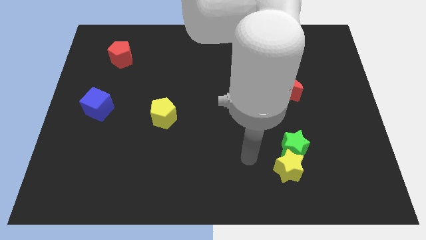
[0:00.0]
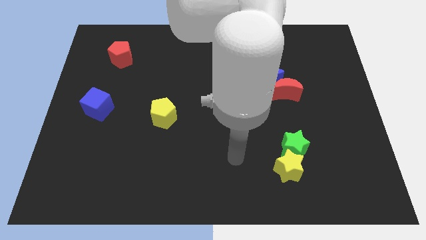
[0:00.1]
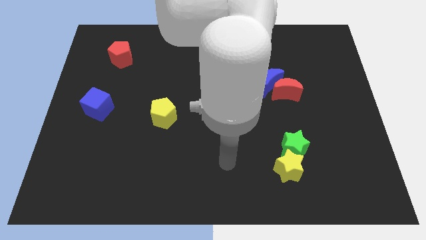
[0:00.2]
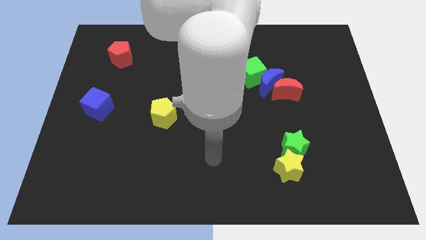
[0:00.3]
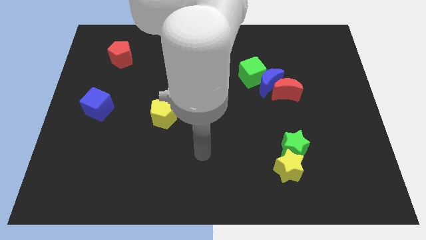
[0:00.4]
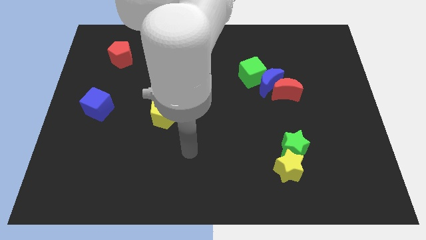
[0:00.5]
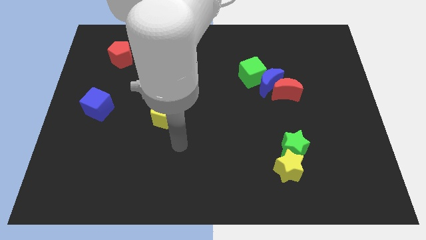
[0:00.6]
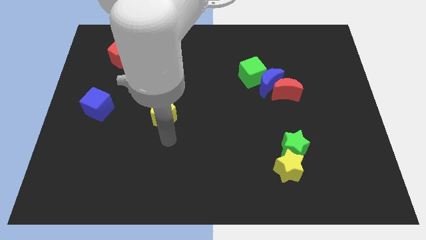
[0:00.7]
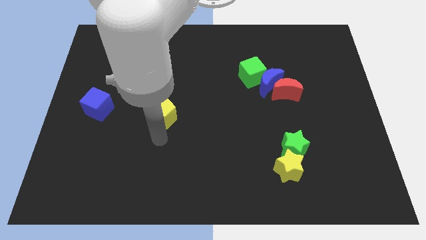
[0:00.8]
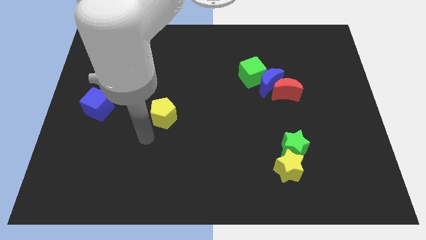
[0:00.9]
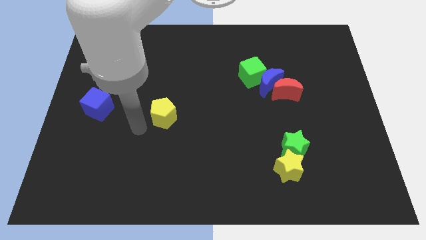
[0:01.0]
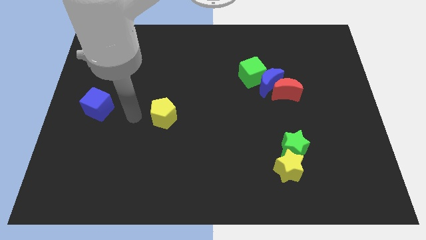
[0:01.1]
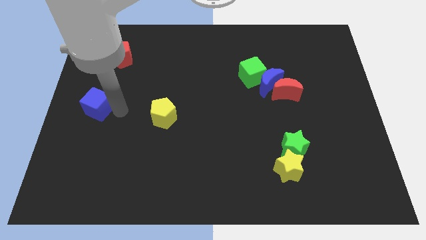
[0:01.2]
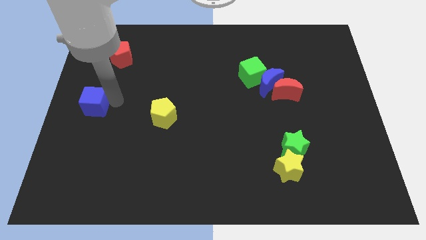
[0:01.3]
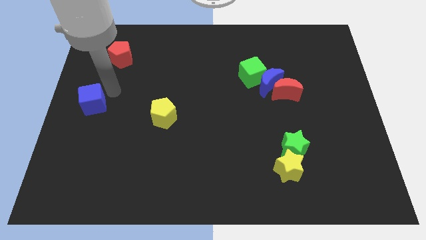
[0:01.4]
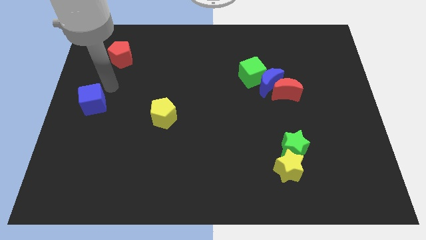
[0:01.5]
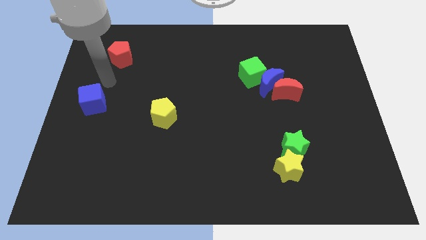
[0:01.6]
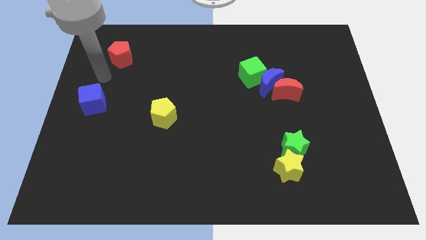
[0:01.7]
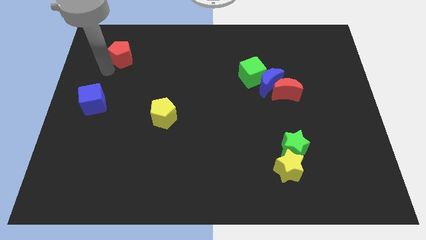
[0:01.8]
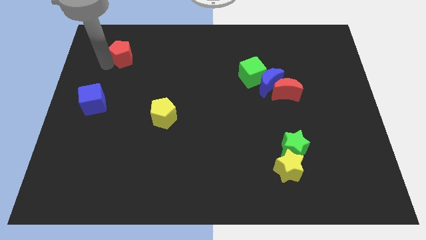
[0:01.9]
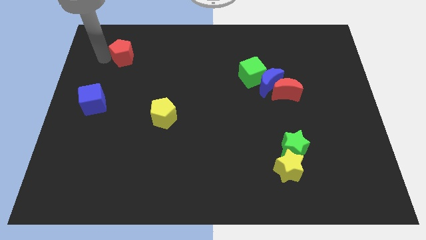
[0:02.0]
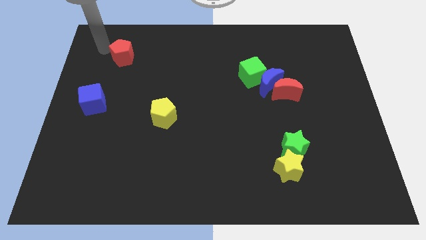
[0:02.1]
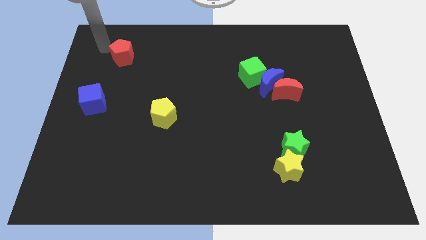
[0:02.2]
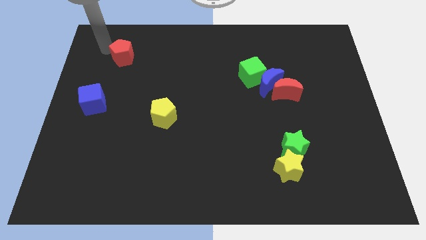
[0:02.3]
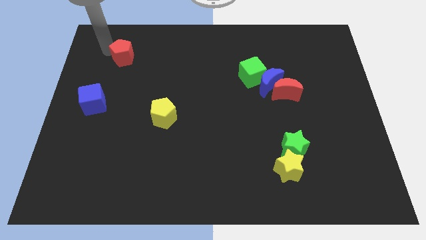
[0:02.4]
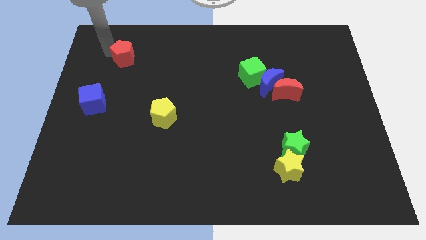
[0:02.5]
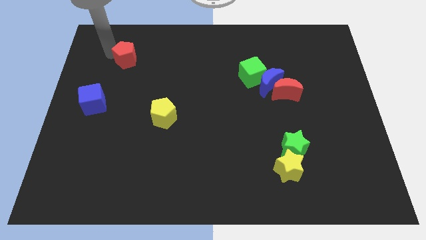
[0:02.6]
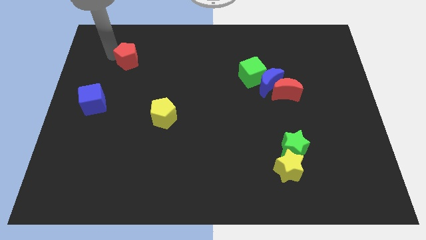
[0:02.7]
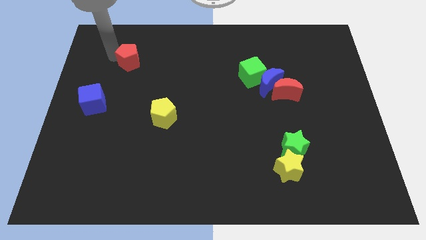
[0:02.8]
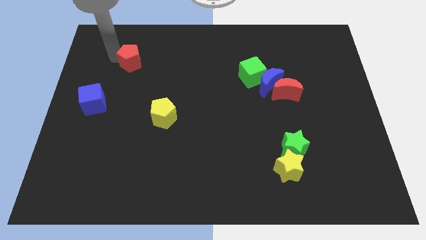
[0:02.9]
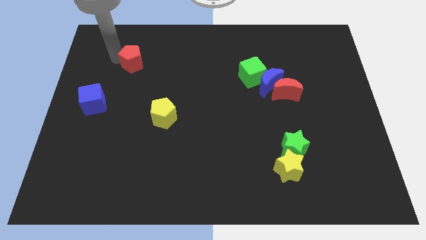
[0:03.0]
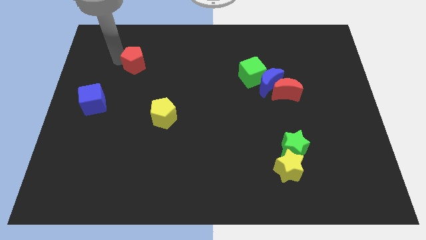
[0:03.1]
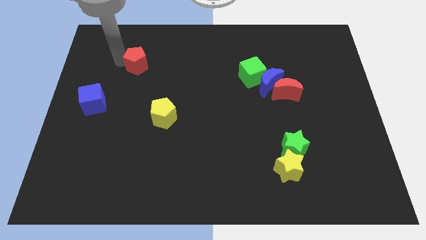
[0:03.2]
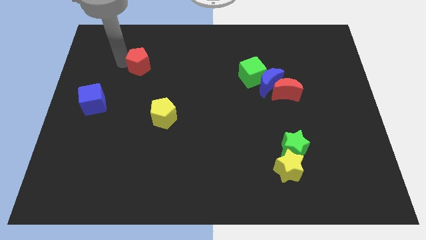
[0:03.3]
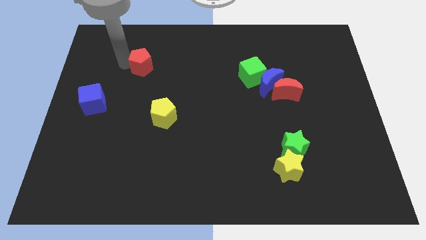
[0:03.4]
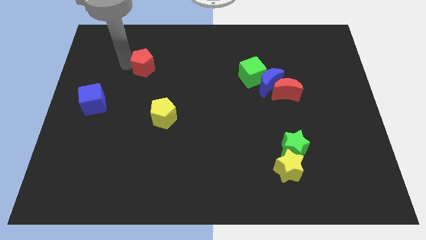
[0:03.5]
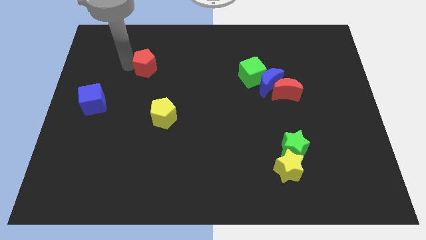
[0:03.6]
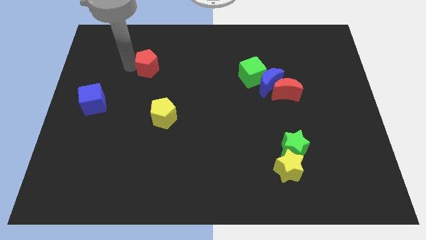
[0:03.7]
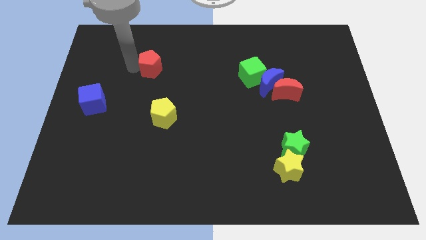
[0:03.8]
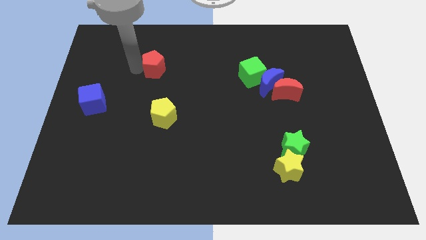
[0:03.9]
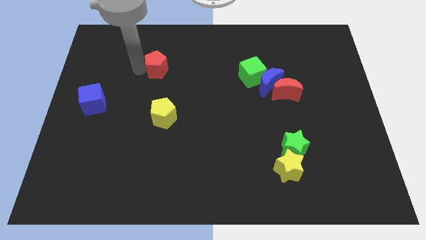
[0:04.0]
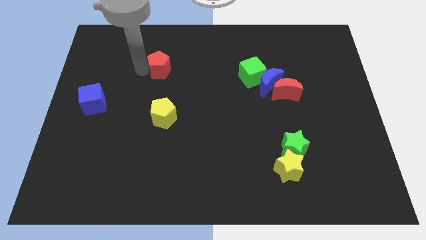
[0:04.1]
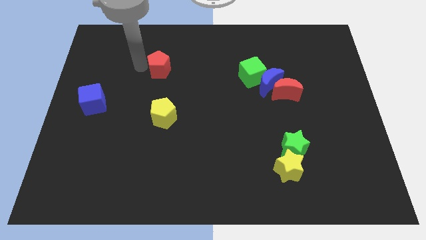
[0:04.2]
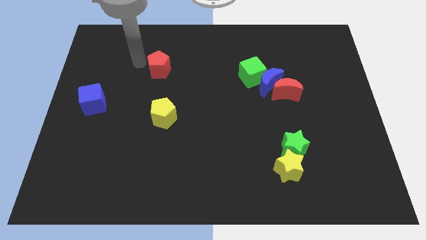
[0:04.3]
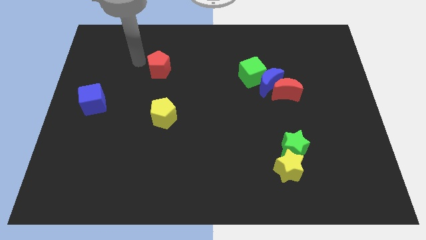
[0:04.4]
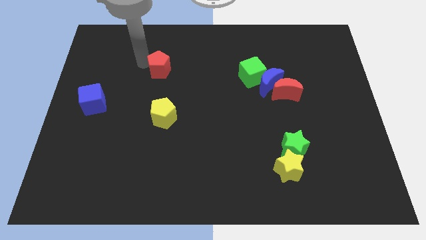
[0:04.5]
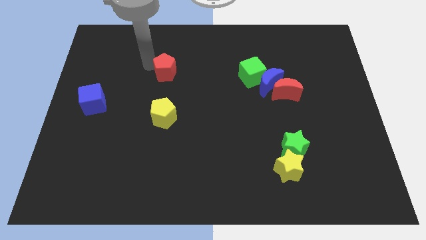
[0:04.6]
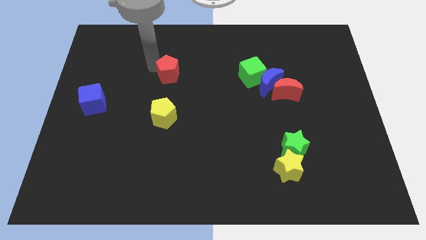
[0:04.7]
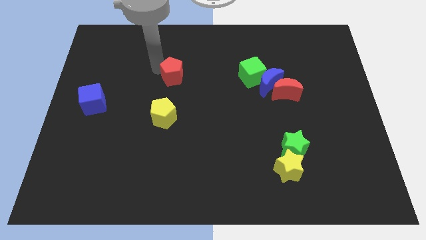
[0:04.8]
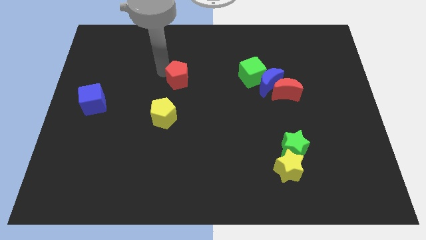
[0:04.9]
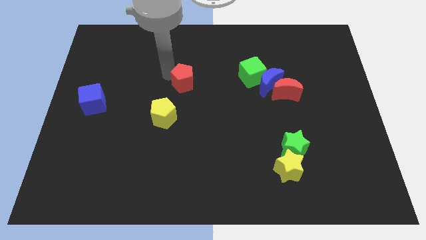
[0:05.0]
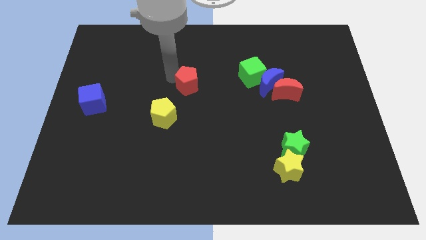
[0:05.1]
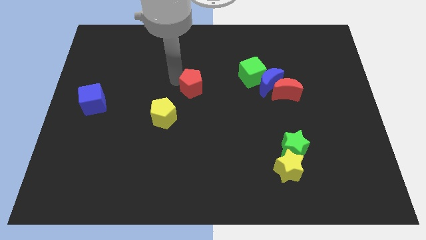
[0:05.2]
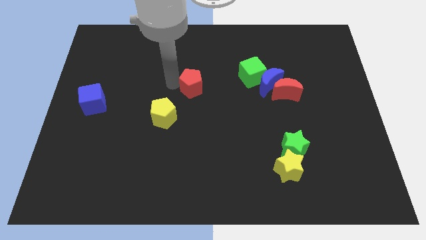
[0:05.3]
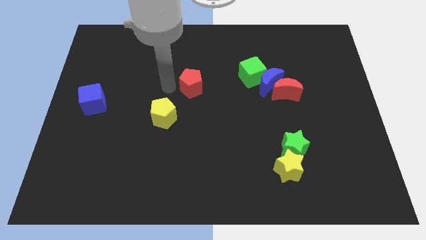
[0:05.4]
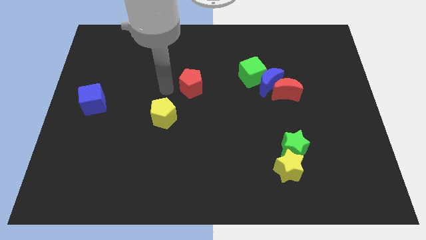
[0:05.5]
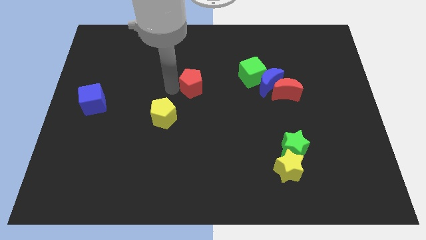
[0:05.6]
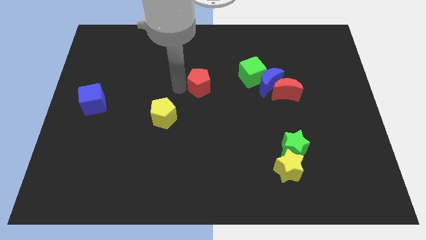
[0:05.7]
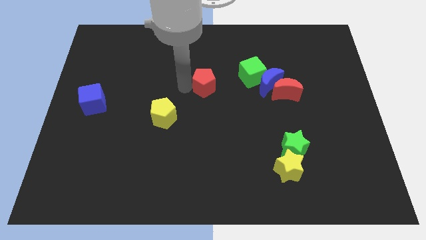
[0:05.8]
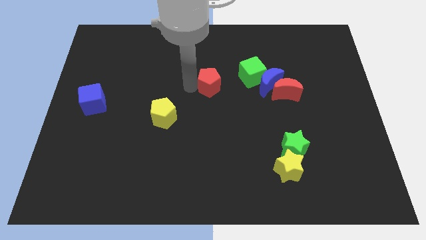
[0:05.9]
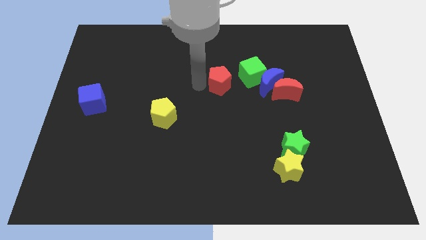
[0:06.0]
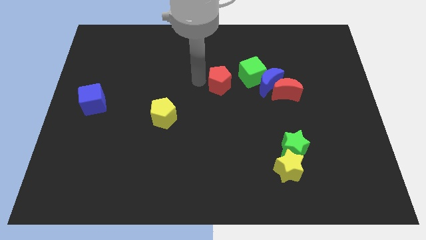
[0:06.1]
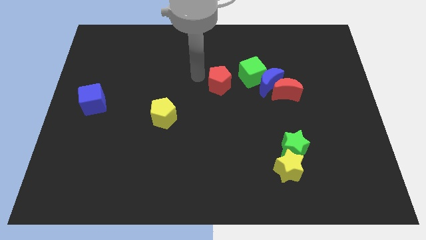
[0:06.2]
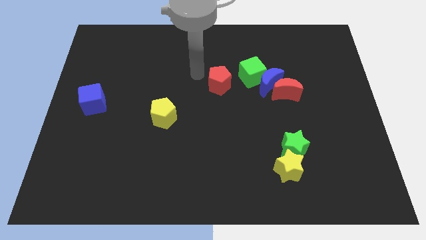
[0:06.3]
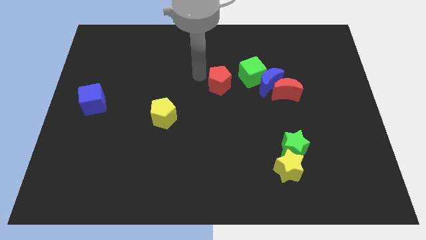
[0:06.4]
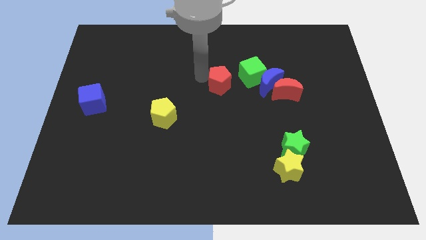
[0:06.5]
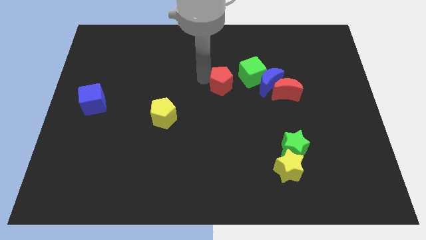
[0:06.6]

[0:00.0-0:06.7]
push the red pentagon just left of the red moon
